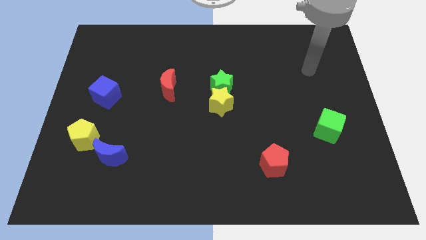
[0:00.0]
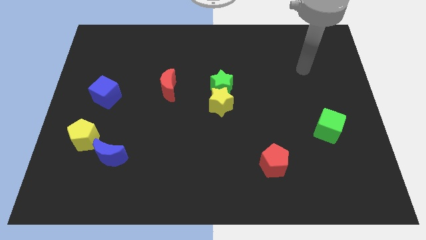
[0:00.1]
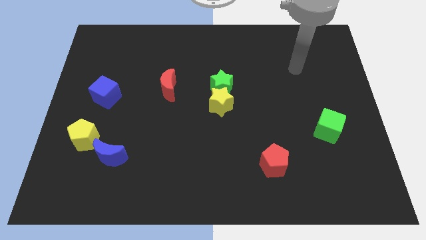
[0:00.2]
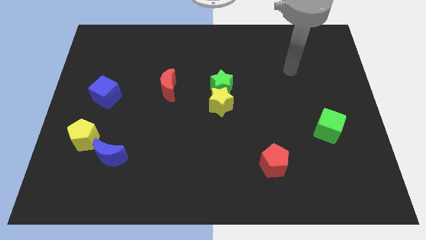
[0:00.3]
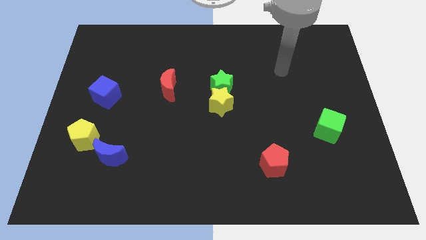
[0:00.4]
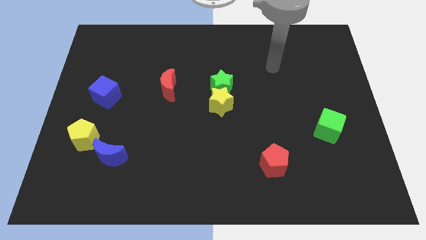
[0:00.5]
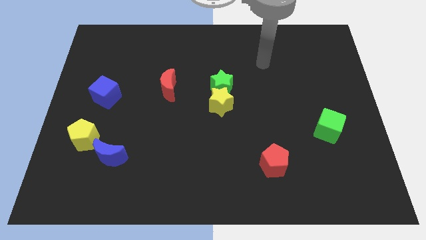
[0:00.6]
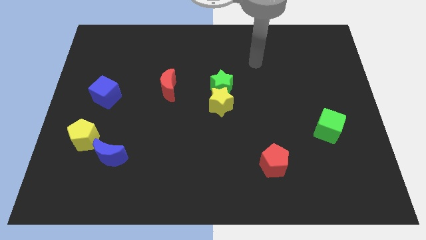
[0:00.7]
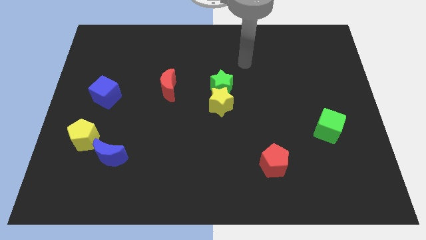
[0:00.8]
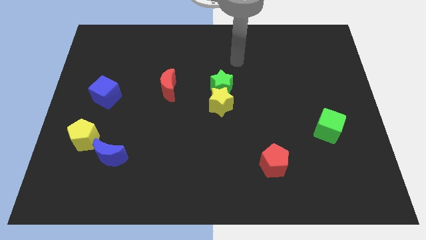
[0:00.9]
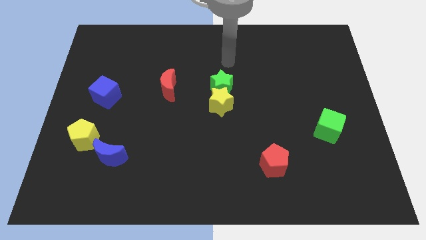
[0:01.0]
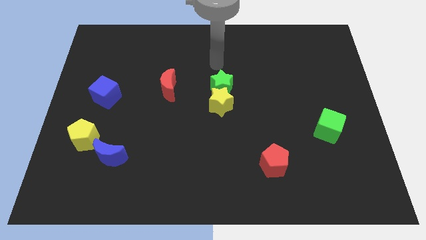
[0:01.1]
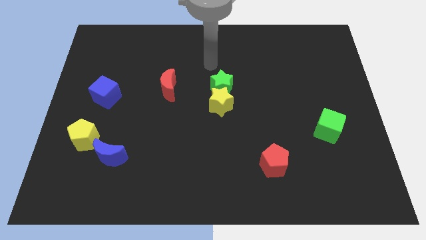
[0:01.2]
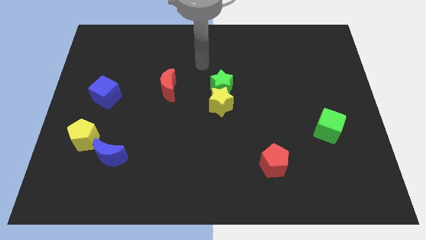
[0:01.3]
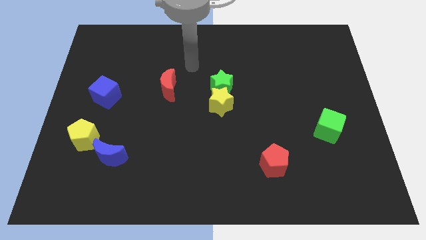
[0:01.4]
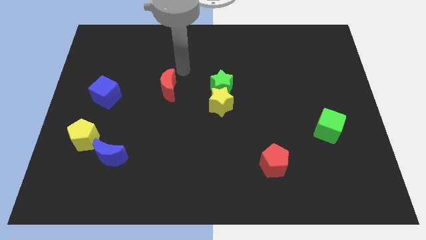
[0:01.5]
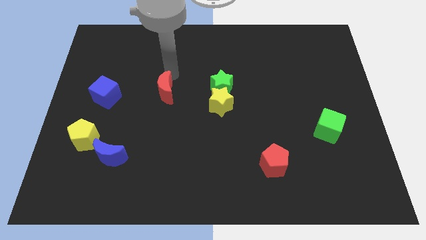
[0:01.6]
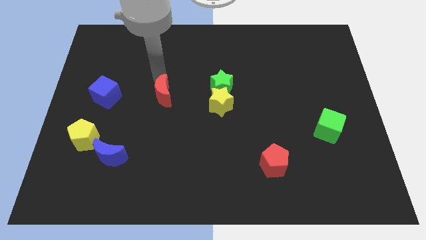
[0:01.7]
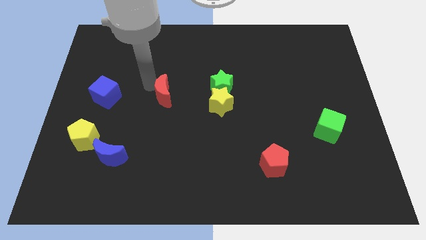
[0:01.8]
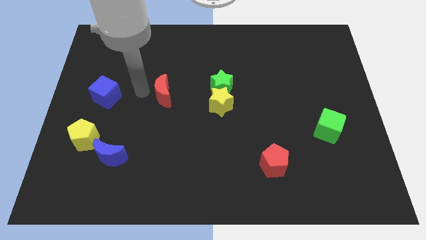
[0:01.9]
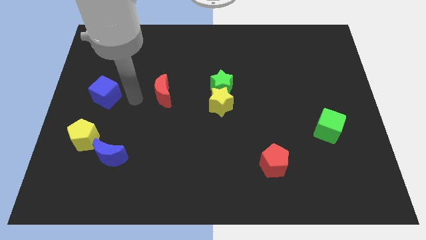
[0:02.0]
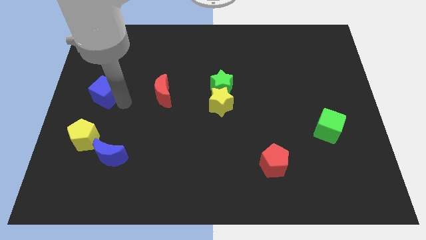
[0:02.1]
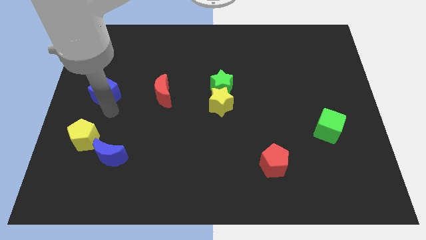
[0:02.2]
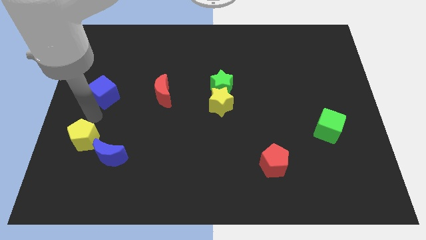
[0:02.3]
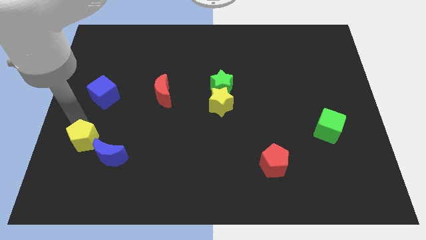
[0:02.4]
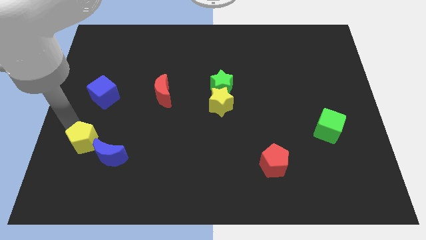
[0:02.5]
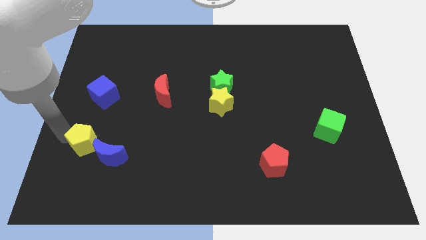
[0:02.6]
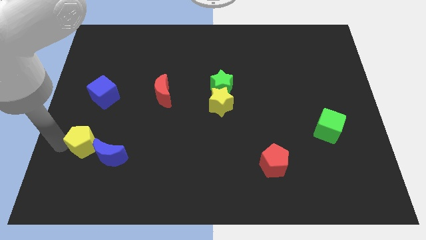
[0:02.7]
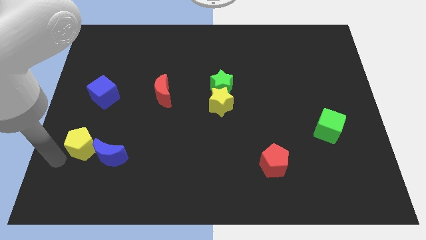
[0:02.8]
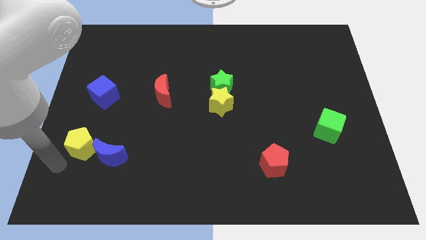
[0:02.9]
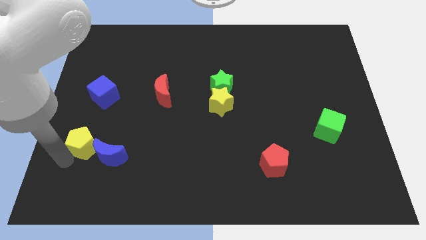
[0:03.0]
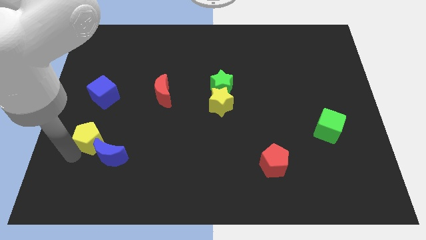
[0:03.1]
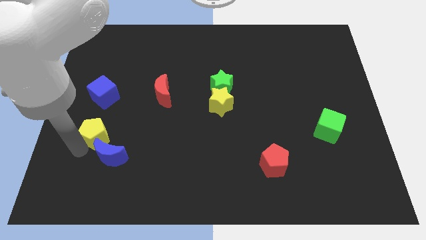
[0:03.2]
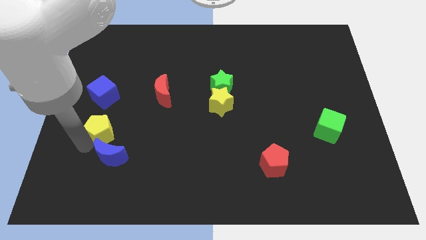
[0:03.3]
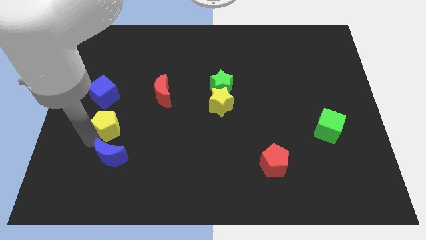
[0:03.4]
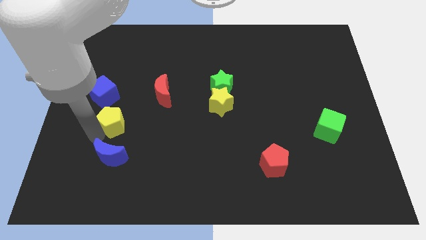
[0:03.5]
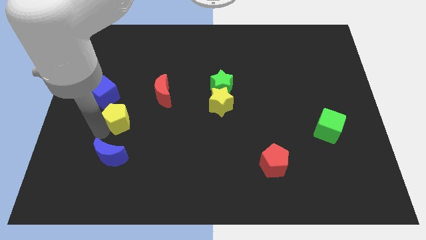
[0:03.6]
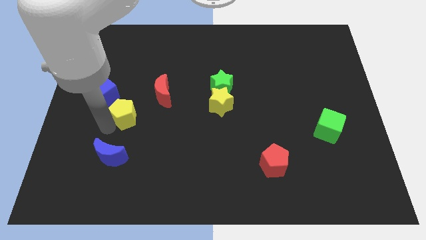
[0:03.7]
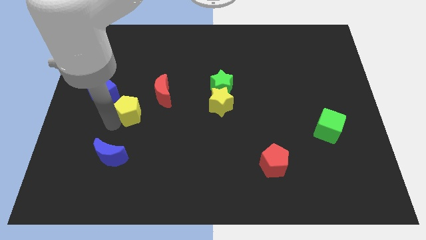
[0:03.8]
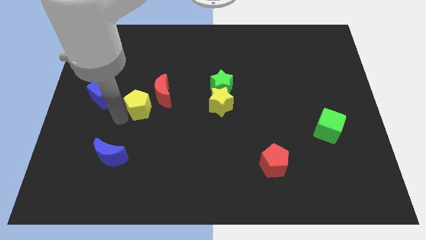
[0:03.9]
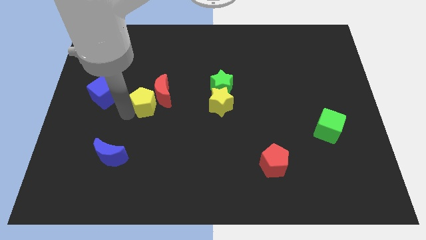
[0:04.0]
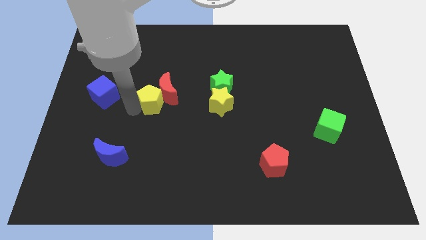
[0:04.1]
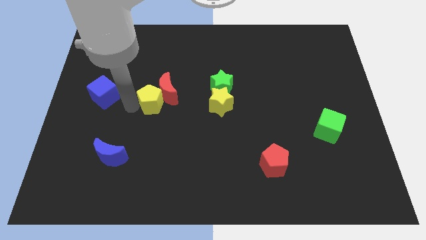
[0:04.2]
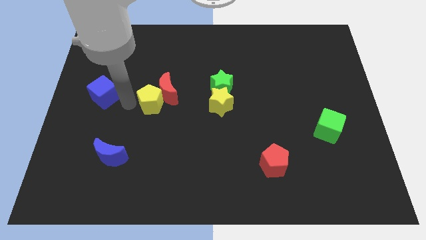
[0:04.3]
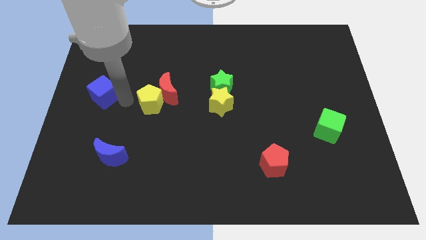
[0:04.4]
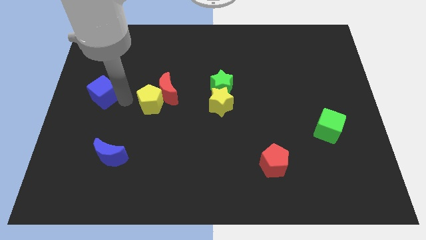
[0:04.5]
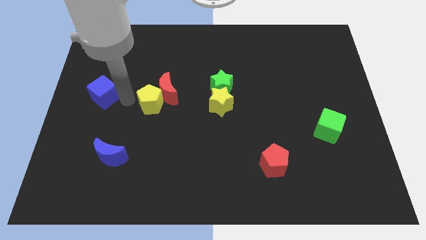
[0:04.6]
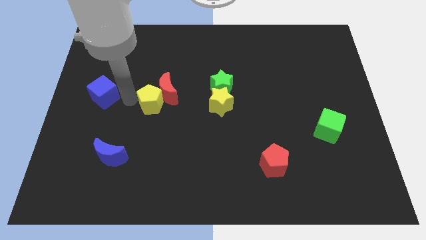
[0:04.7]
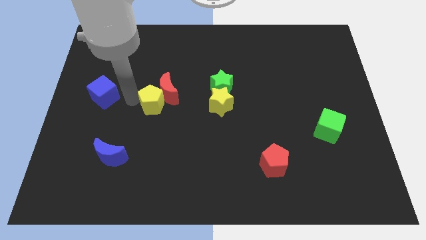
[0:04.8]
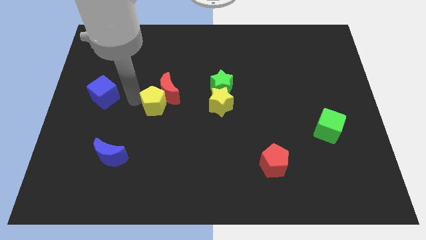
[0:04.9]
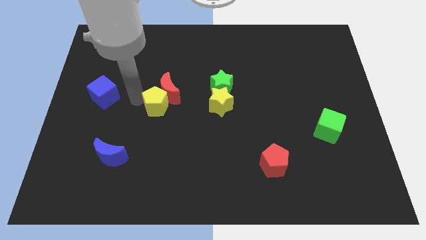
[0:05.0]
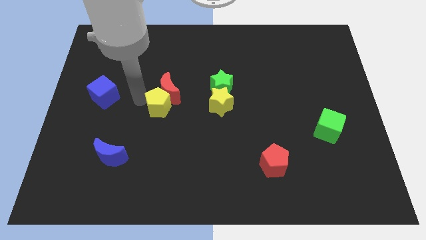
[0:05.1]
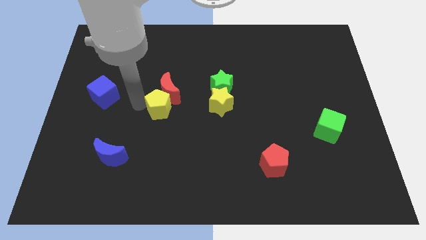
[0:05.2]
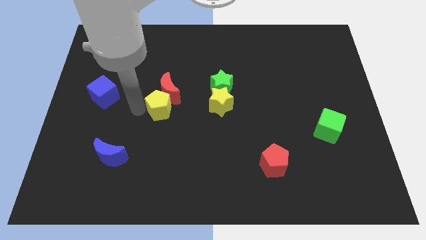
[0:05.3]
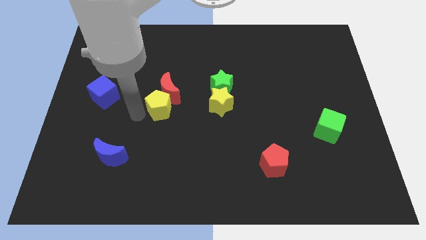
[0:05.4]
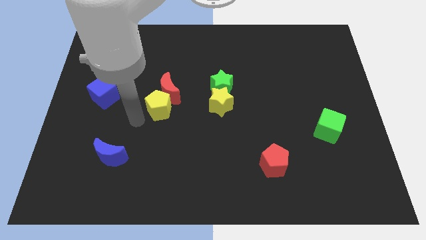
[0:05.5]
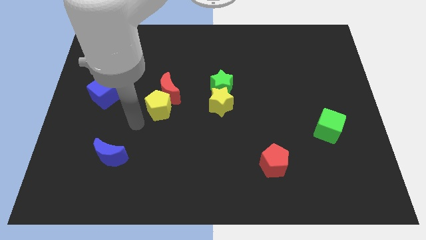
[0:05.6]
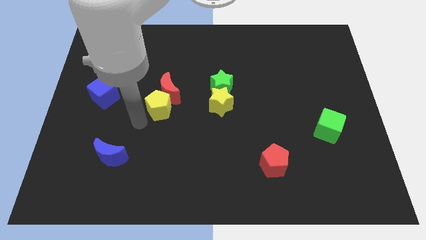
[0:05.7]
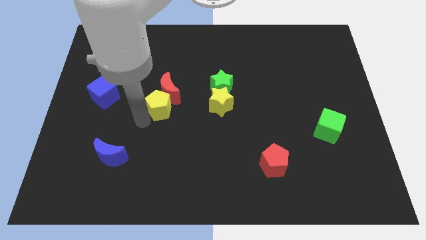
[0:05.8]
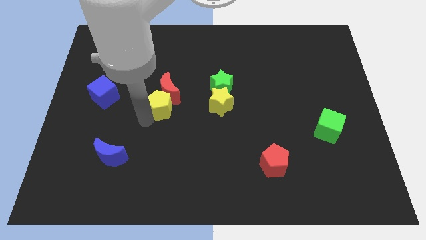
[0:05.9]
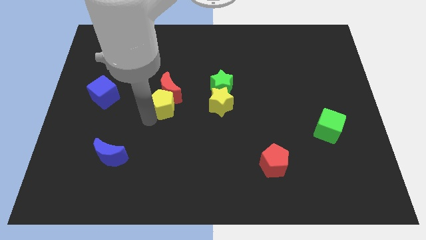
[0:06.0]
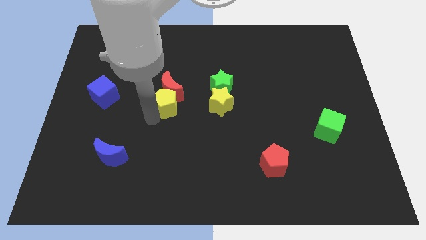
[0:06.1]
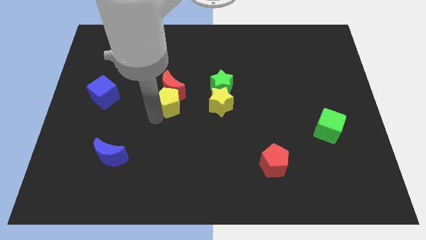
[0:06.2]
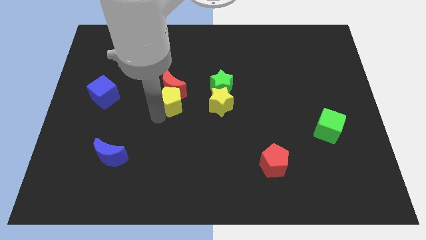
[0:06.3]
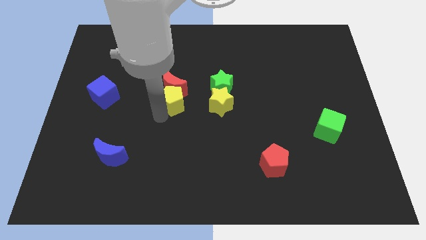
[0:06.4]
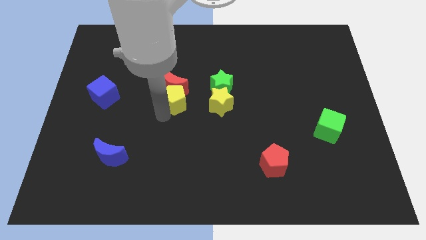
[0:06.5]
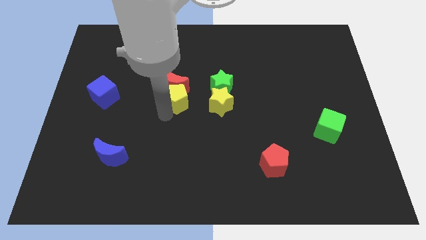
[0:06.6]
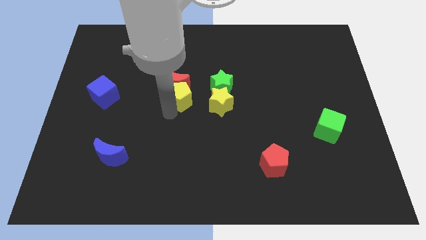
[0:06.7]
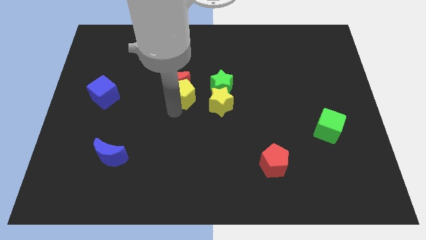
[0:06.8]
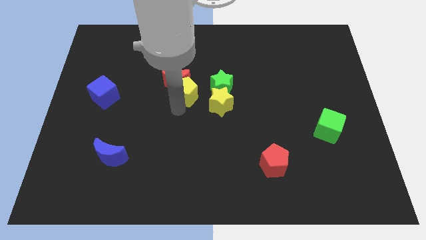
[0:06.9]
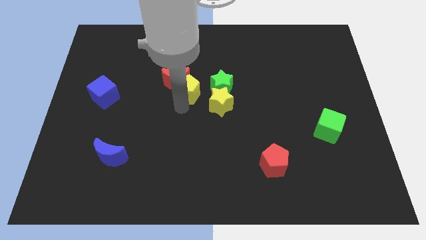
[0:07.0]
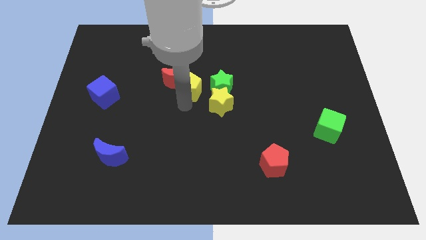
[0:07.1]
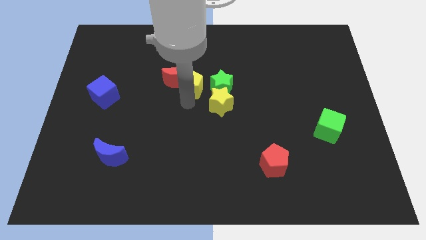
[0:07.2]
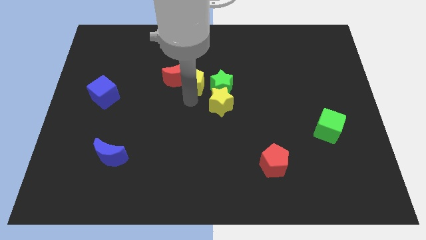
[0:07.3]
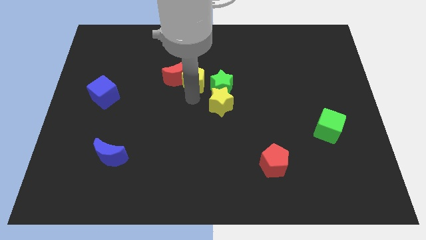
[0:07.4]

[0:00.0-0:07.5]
push the yellow pentagon to the top right side of the red moon
